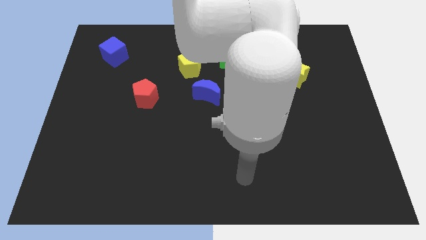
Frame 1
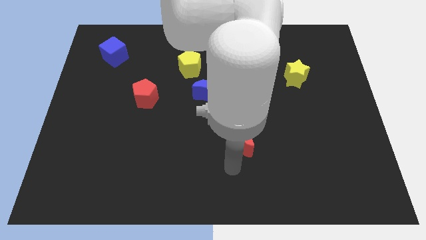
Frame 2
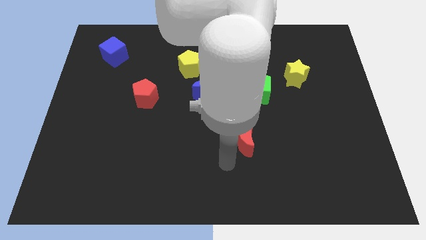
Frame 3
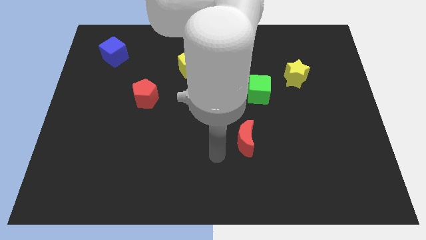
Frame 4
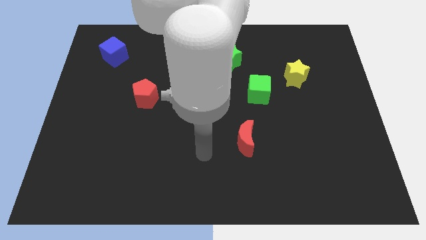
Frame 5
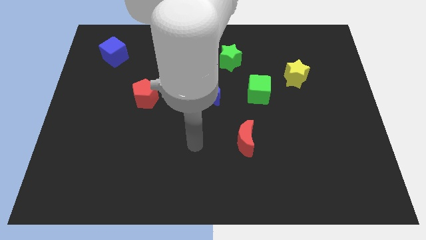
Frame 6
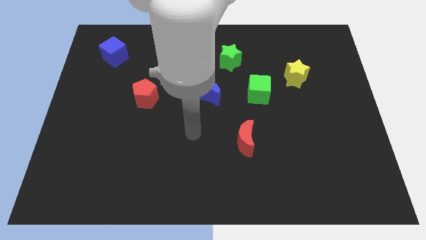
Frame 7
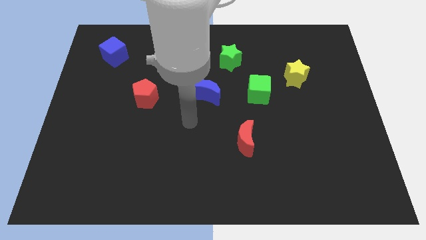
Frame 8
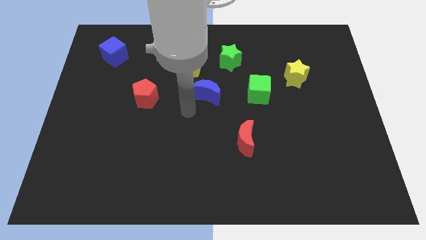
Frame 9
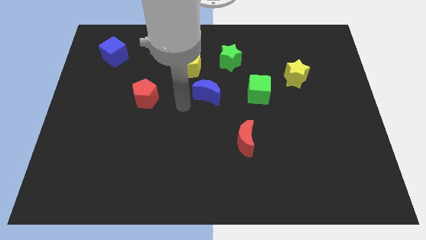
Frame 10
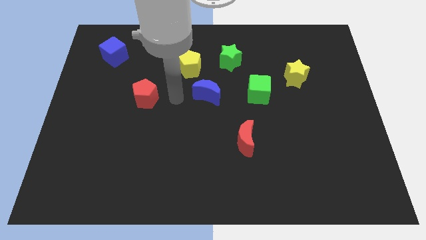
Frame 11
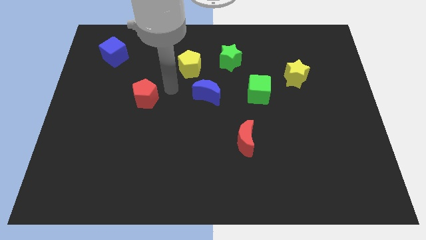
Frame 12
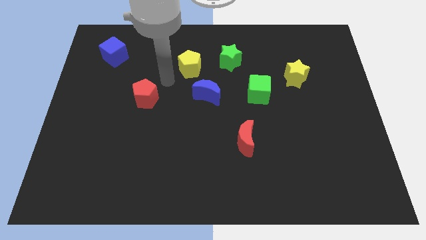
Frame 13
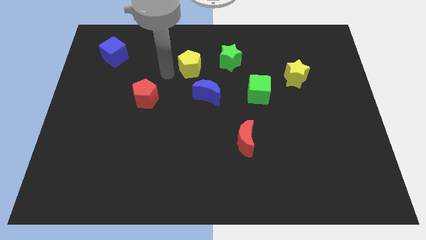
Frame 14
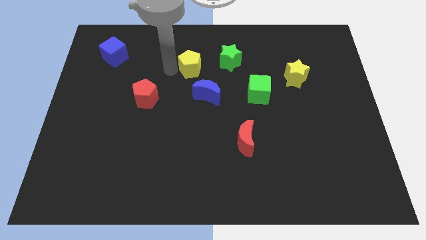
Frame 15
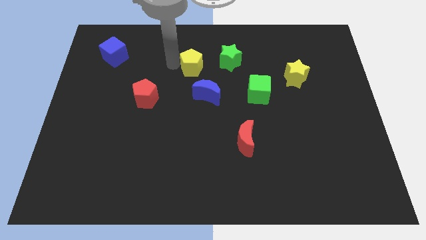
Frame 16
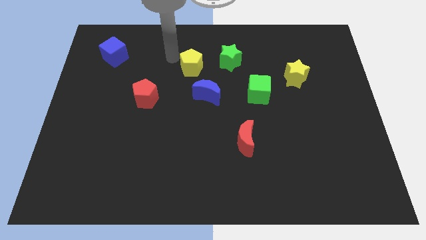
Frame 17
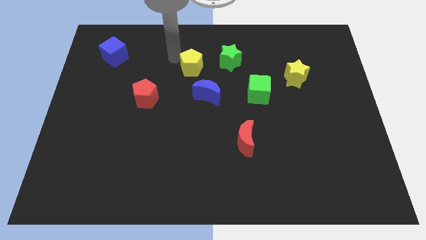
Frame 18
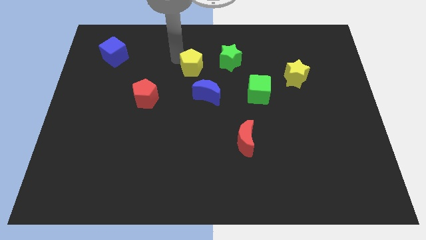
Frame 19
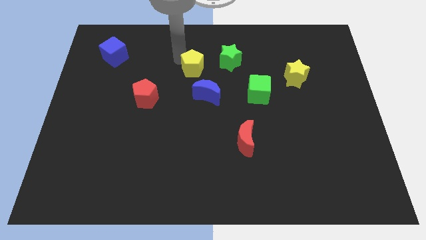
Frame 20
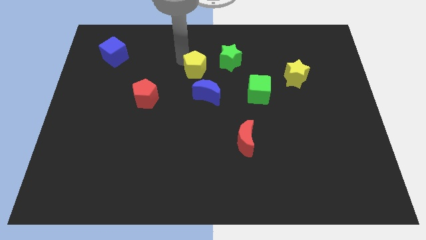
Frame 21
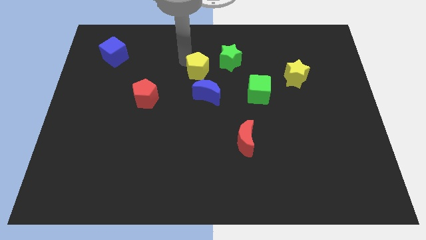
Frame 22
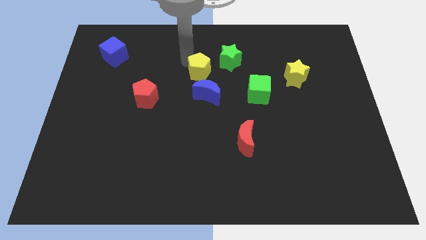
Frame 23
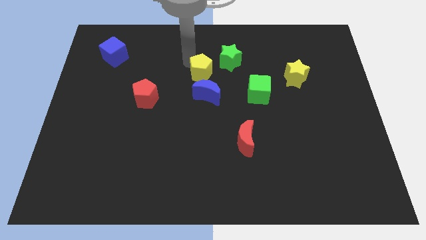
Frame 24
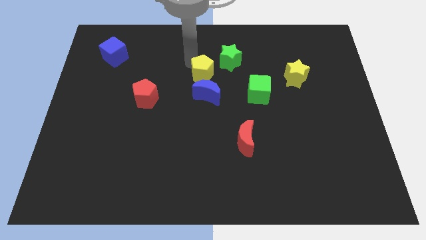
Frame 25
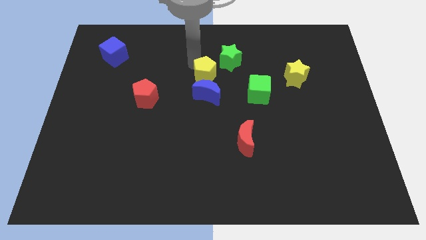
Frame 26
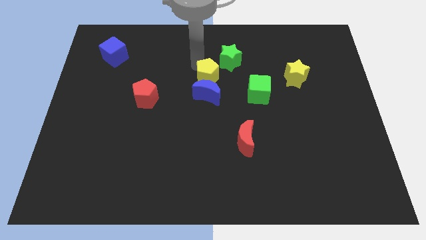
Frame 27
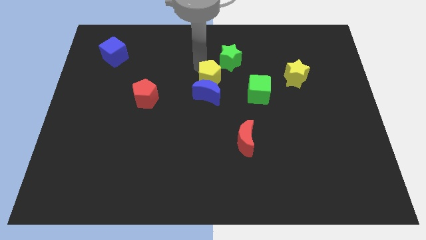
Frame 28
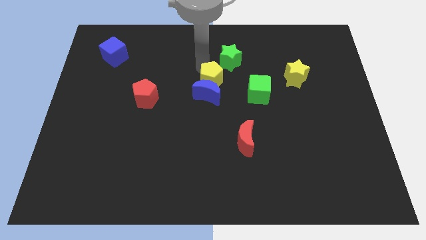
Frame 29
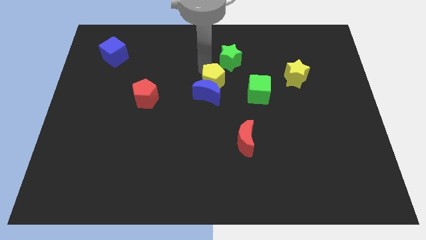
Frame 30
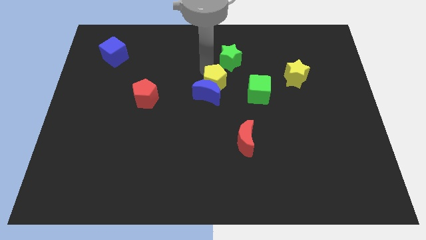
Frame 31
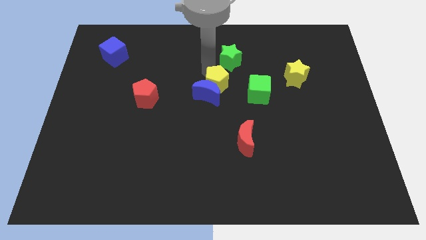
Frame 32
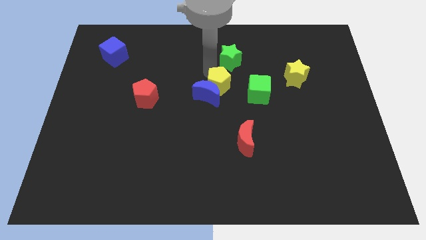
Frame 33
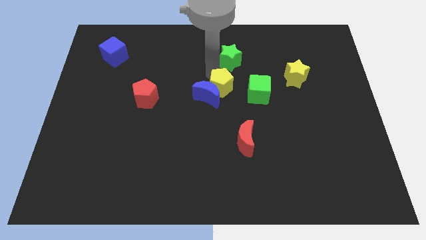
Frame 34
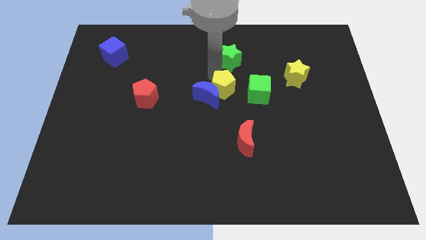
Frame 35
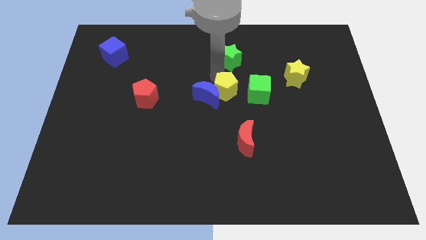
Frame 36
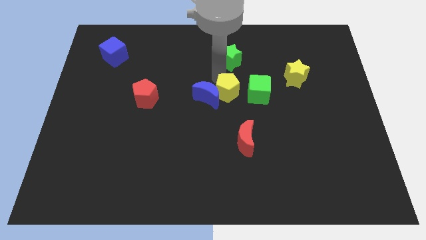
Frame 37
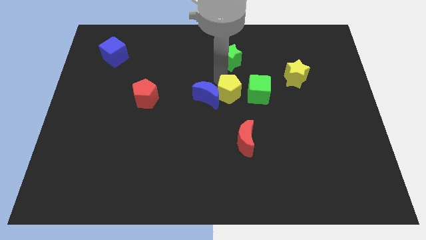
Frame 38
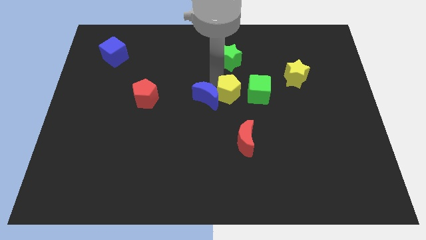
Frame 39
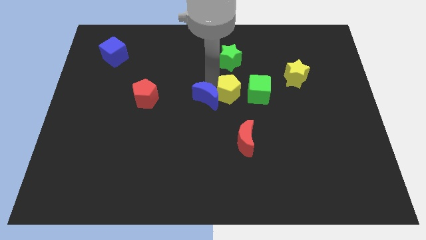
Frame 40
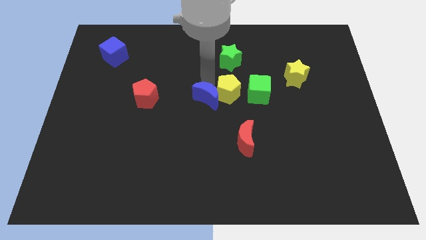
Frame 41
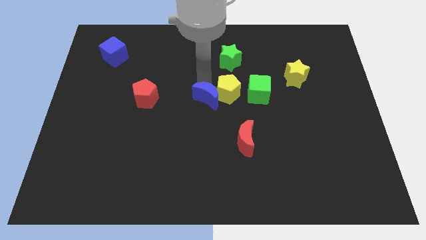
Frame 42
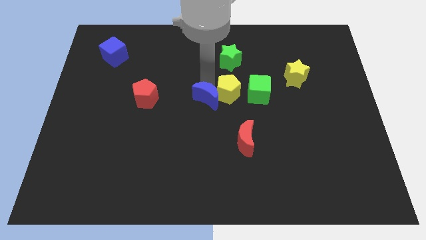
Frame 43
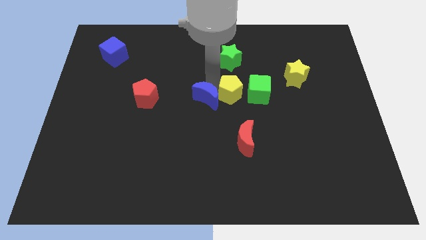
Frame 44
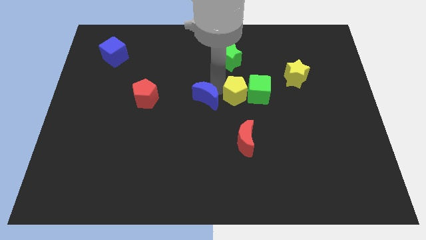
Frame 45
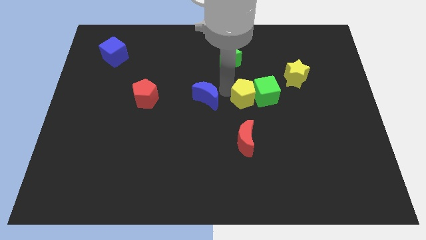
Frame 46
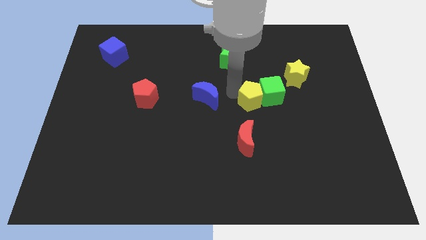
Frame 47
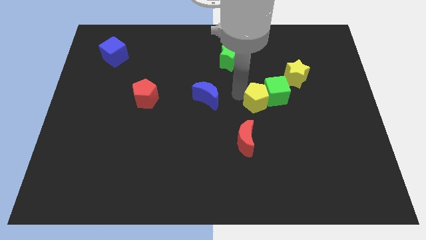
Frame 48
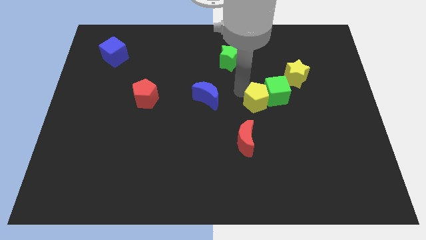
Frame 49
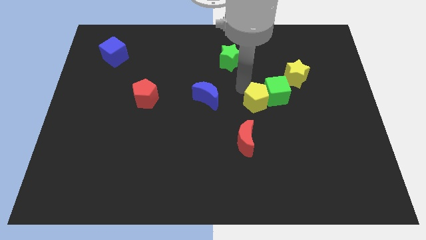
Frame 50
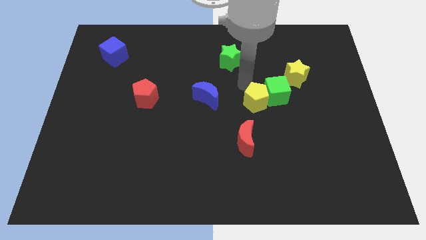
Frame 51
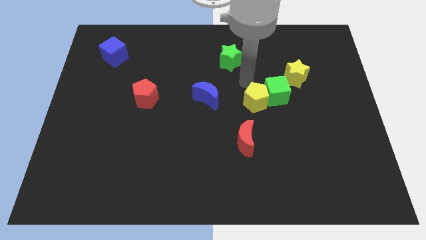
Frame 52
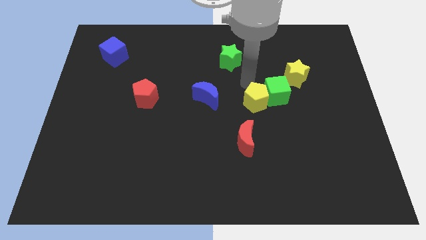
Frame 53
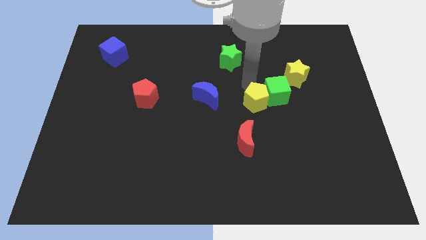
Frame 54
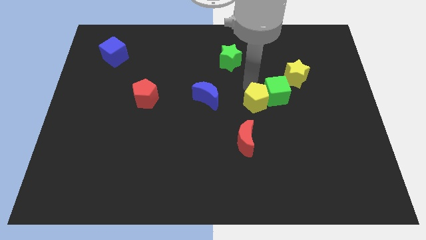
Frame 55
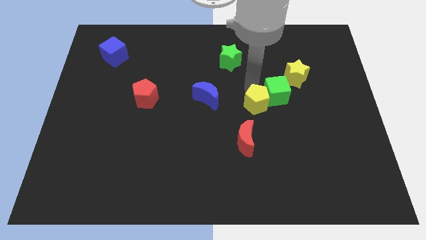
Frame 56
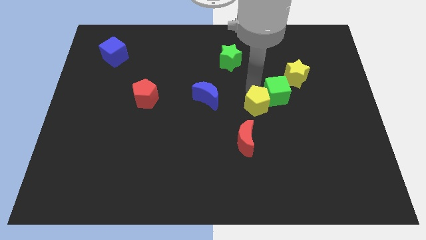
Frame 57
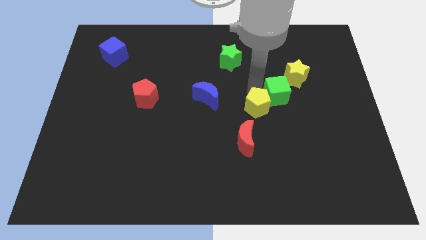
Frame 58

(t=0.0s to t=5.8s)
slide the yellow pentagon down and then right

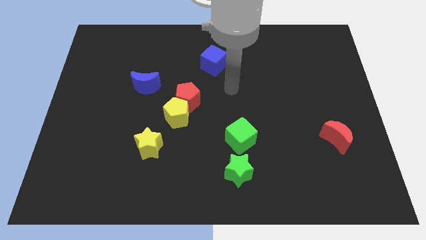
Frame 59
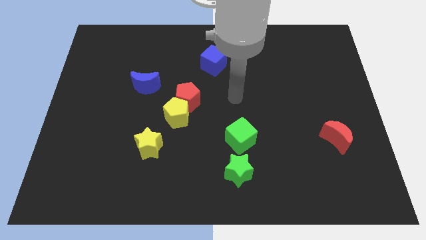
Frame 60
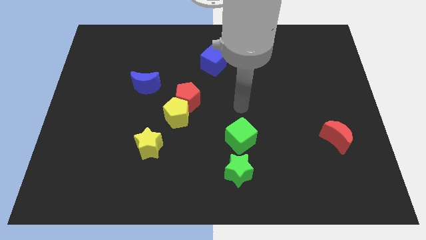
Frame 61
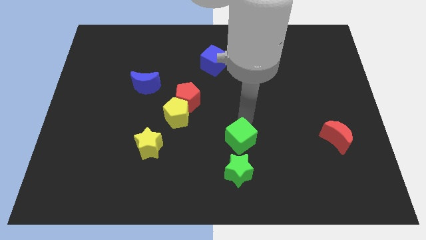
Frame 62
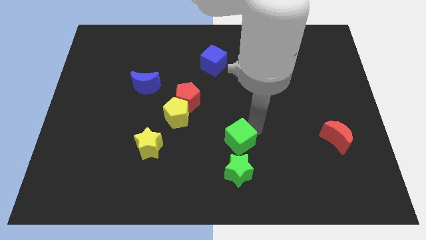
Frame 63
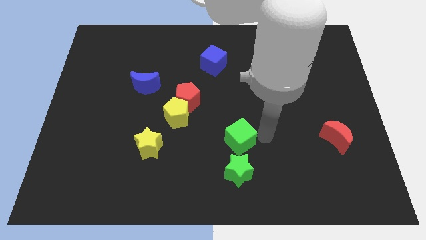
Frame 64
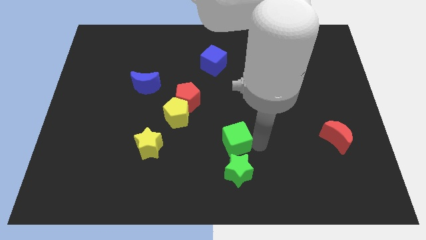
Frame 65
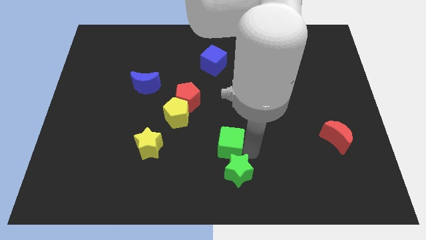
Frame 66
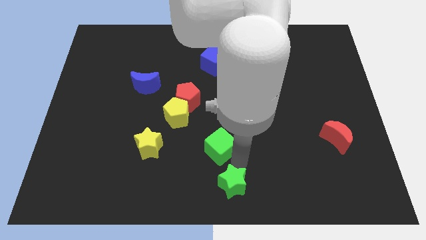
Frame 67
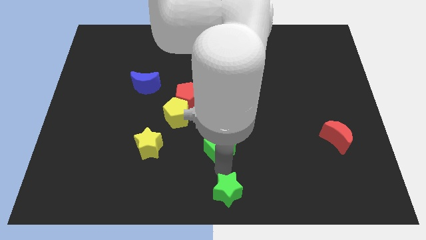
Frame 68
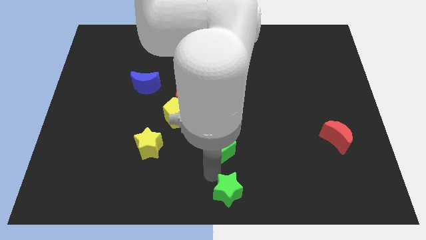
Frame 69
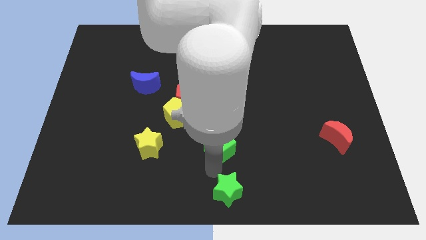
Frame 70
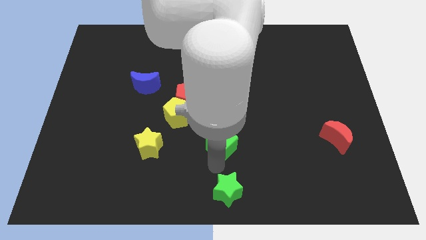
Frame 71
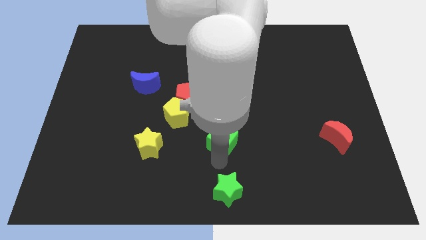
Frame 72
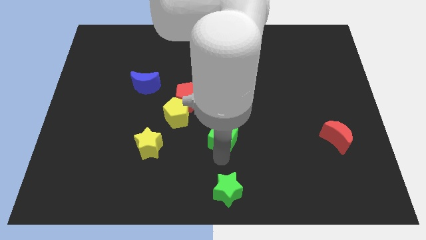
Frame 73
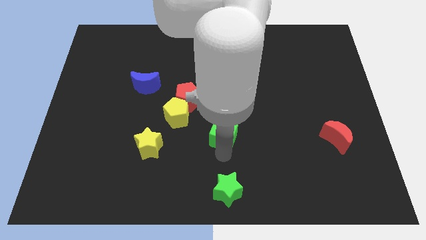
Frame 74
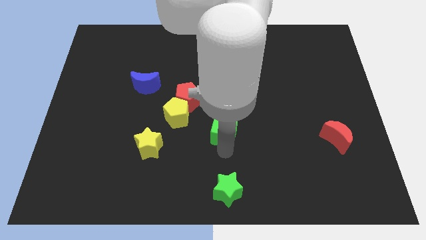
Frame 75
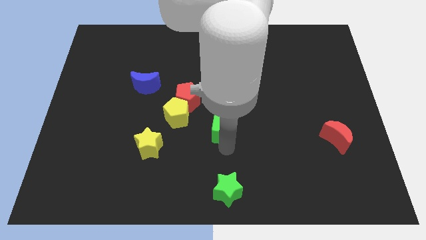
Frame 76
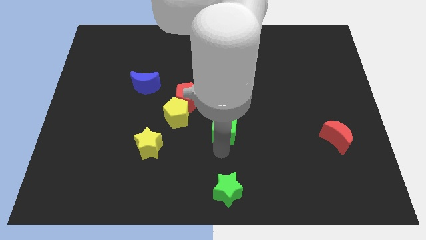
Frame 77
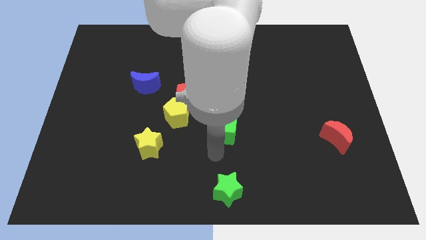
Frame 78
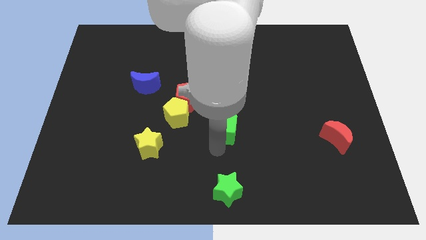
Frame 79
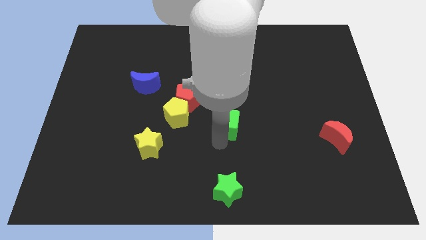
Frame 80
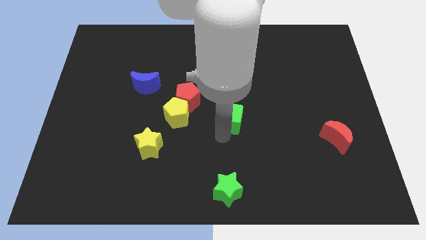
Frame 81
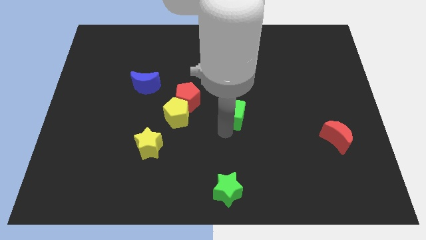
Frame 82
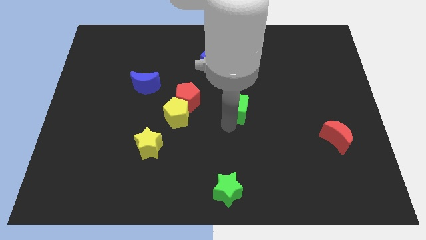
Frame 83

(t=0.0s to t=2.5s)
push the green cube a bit up
